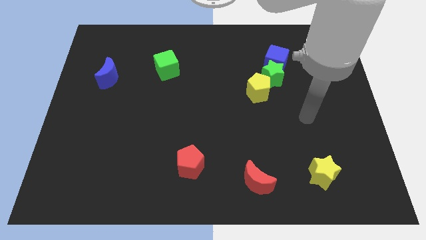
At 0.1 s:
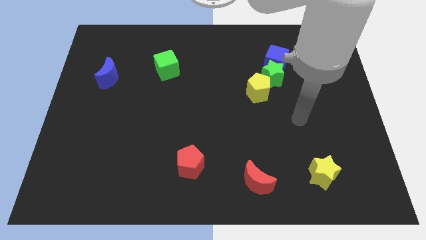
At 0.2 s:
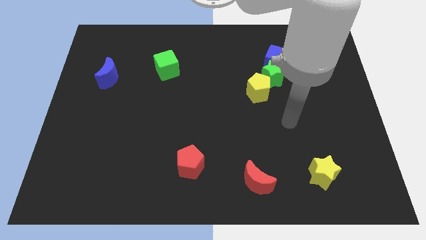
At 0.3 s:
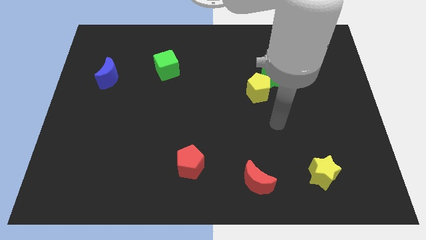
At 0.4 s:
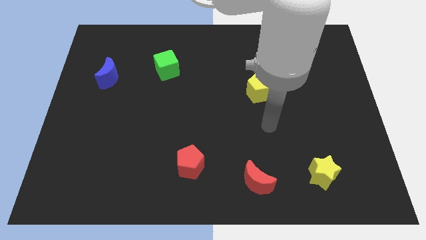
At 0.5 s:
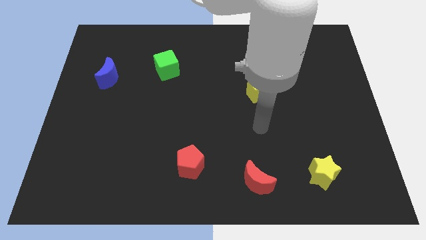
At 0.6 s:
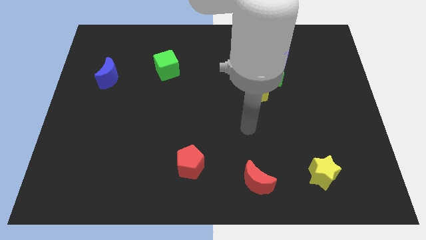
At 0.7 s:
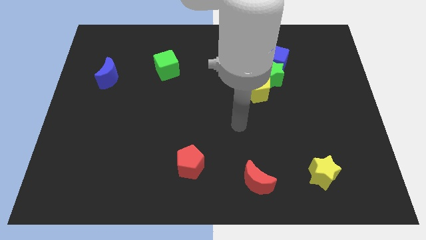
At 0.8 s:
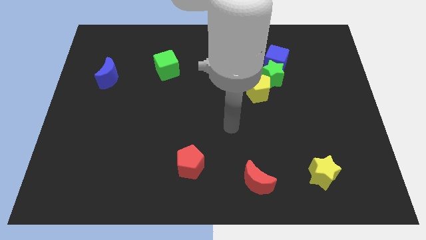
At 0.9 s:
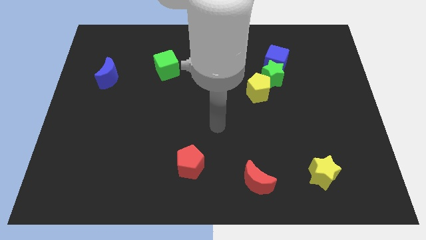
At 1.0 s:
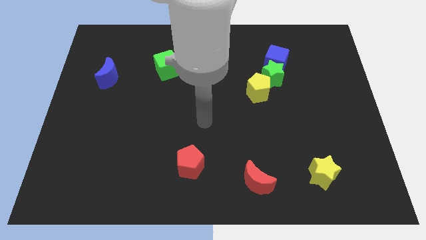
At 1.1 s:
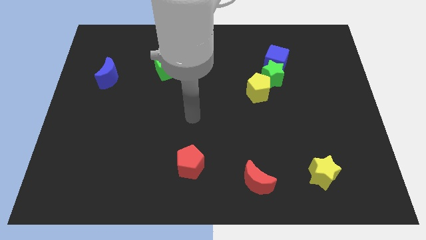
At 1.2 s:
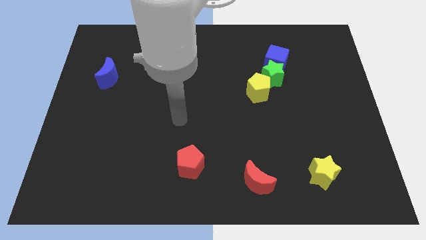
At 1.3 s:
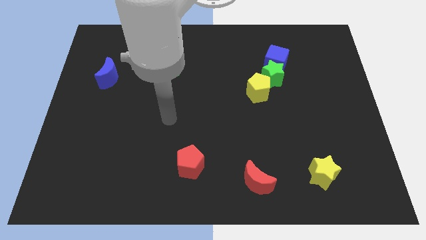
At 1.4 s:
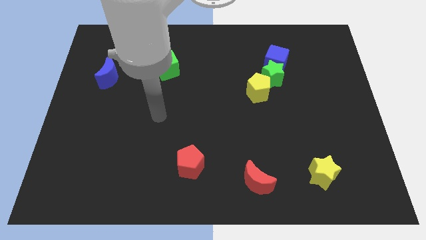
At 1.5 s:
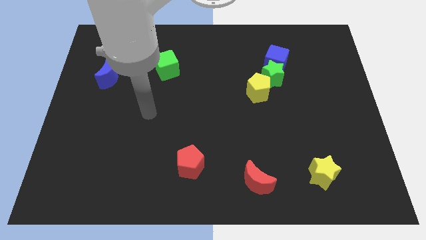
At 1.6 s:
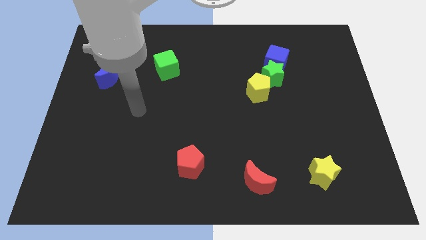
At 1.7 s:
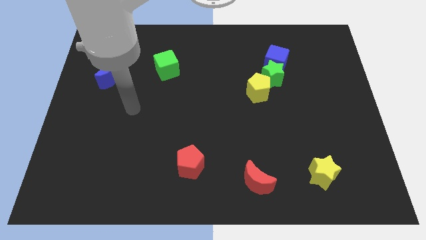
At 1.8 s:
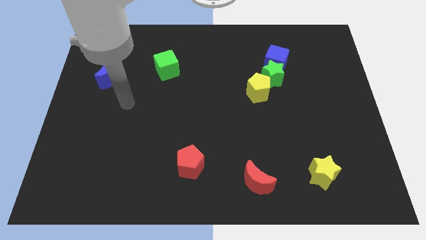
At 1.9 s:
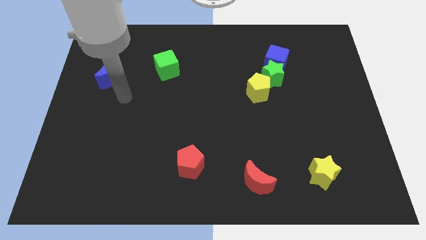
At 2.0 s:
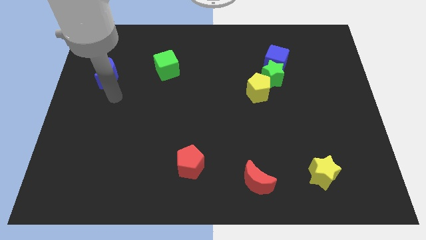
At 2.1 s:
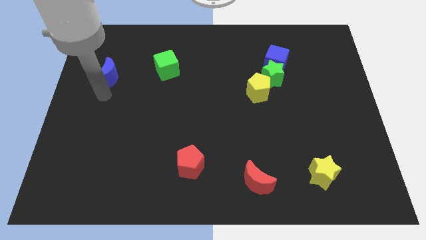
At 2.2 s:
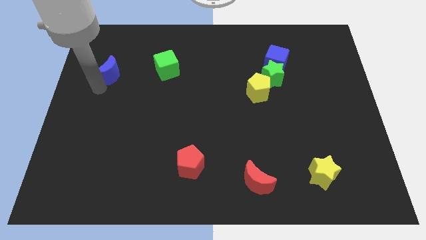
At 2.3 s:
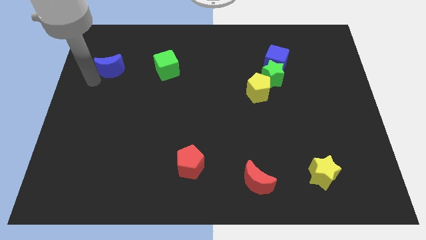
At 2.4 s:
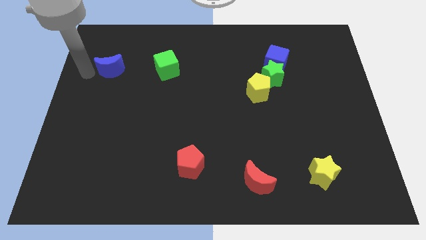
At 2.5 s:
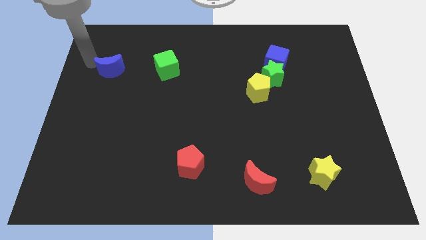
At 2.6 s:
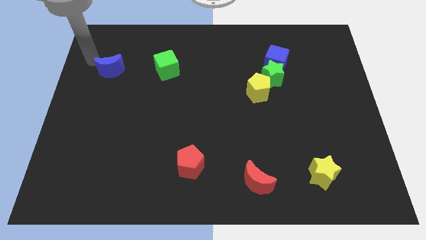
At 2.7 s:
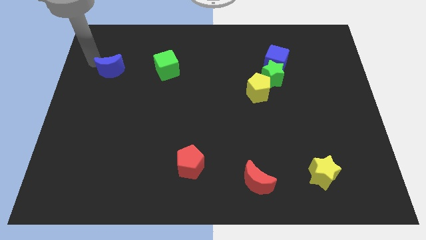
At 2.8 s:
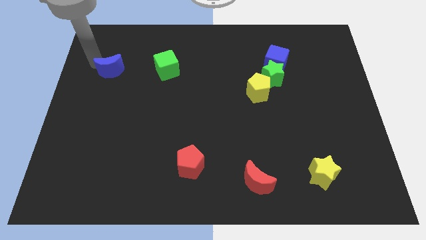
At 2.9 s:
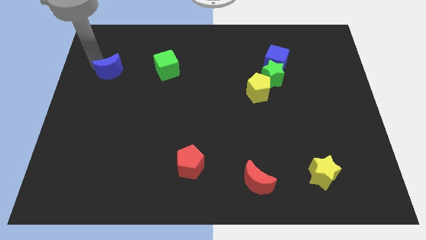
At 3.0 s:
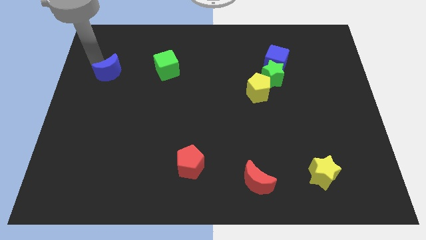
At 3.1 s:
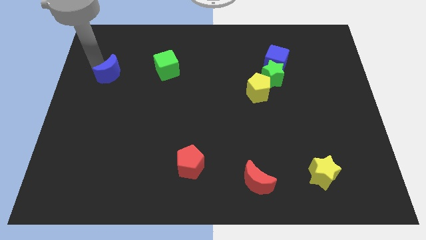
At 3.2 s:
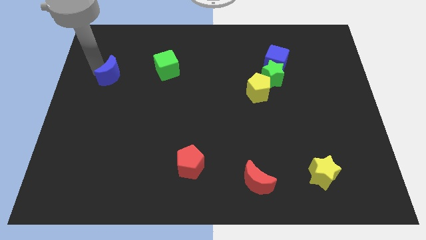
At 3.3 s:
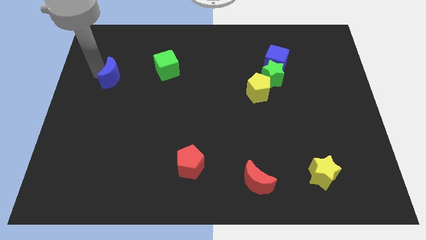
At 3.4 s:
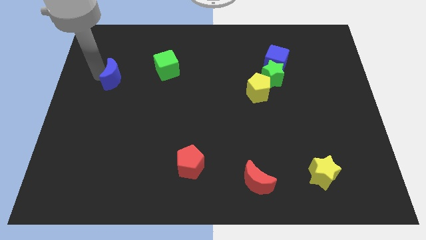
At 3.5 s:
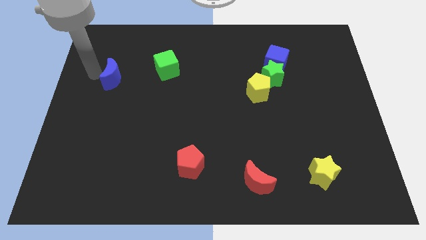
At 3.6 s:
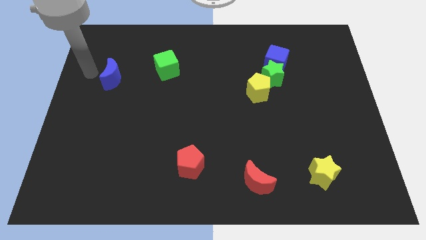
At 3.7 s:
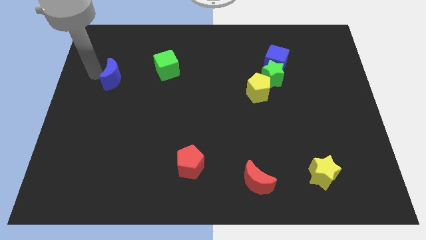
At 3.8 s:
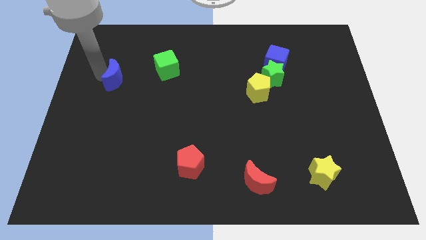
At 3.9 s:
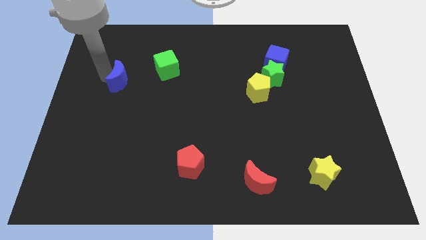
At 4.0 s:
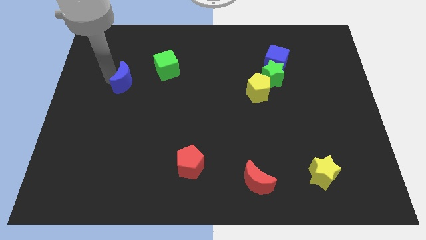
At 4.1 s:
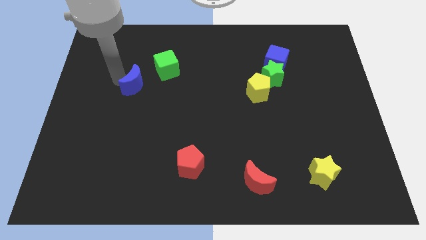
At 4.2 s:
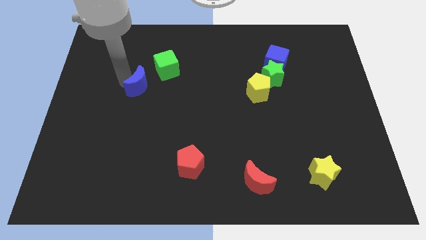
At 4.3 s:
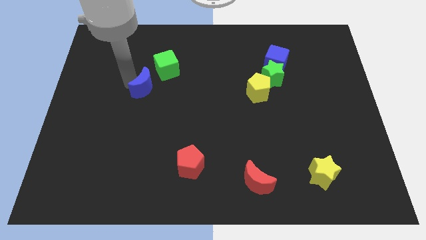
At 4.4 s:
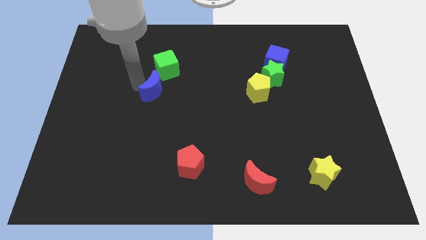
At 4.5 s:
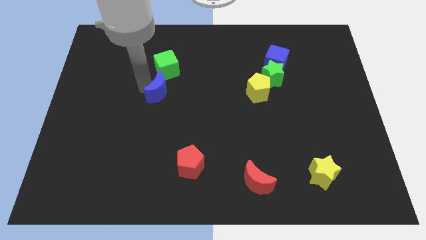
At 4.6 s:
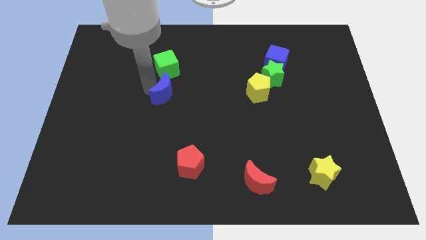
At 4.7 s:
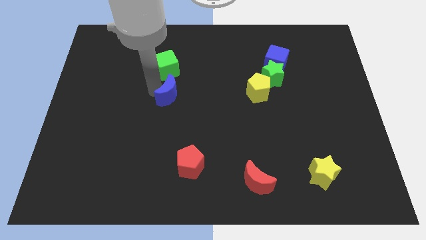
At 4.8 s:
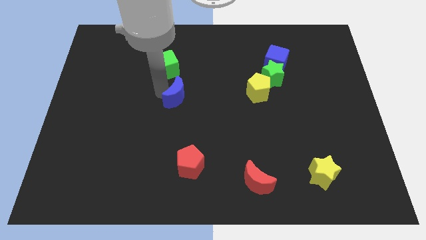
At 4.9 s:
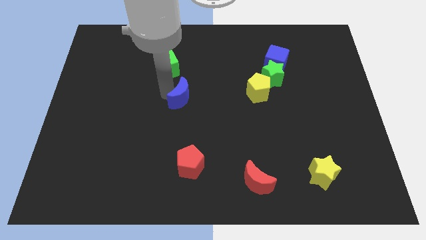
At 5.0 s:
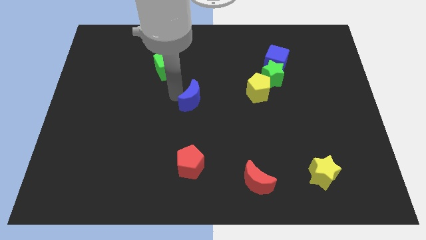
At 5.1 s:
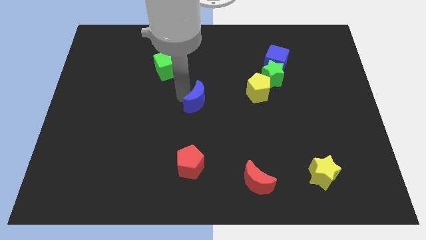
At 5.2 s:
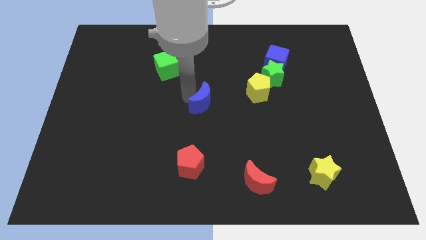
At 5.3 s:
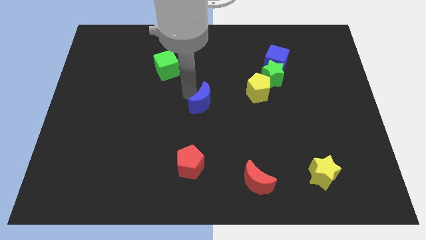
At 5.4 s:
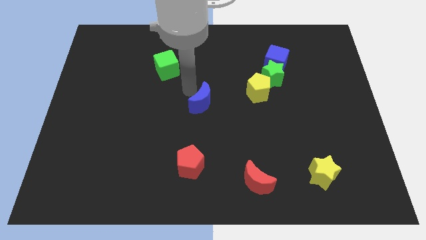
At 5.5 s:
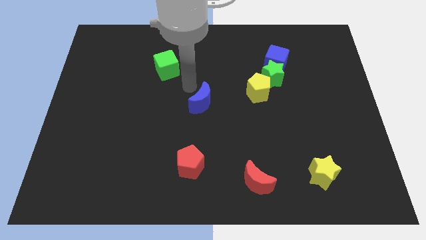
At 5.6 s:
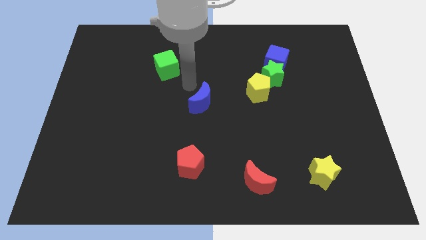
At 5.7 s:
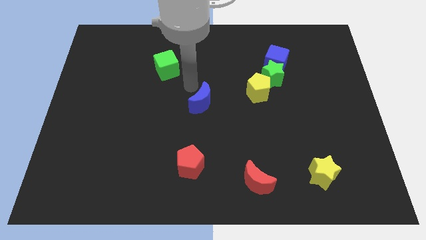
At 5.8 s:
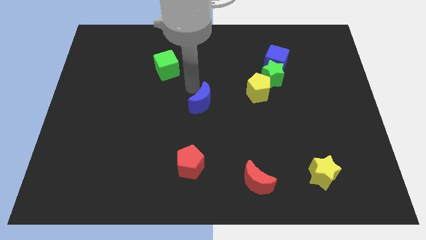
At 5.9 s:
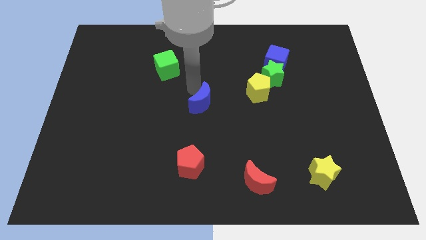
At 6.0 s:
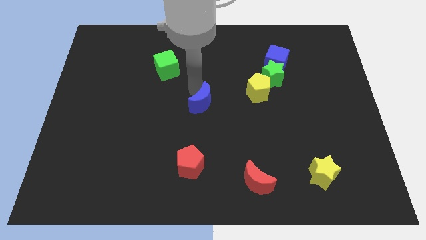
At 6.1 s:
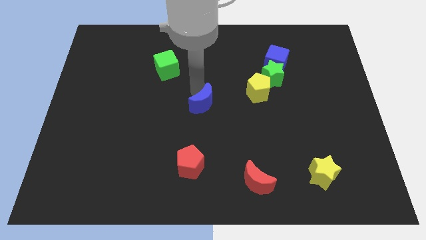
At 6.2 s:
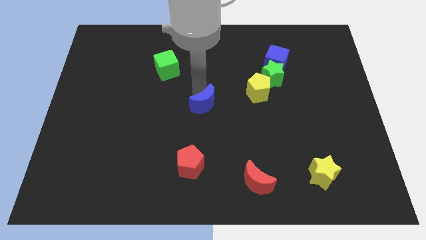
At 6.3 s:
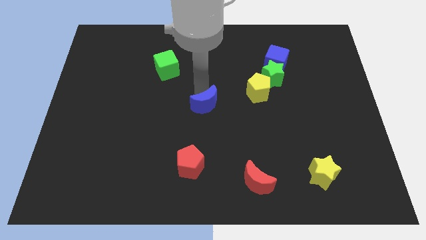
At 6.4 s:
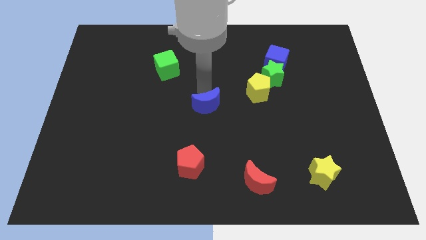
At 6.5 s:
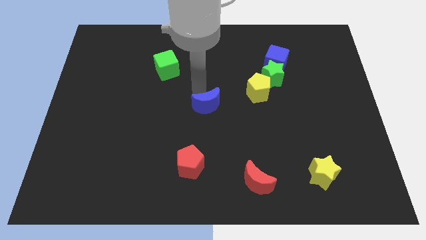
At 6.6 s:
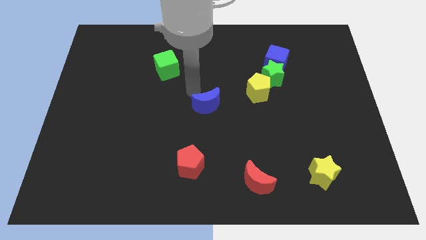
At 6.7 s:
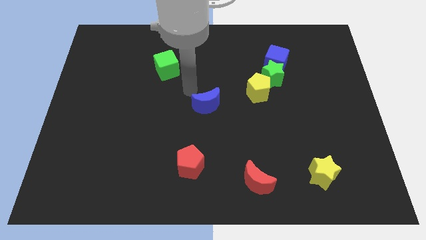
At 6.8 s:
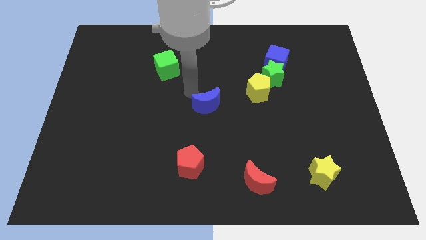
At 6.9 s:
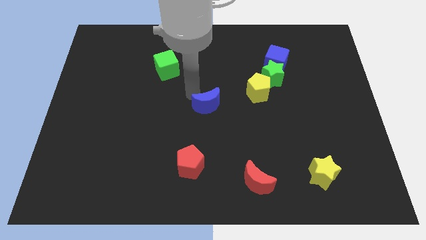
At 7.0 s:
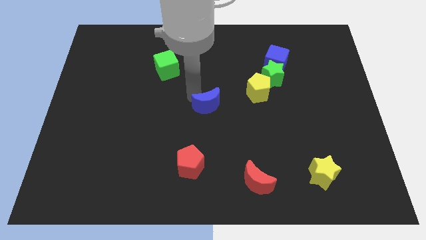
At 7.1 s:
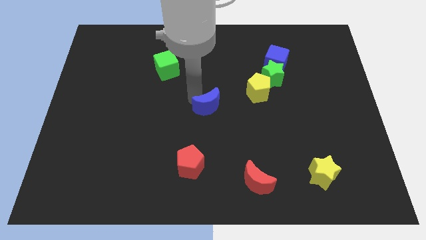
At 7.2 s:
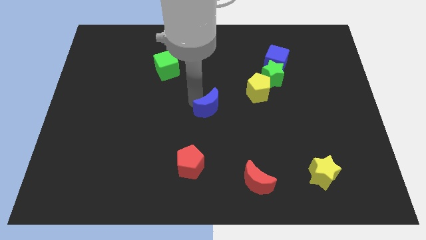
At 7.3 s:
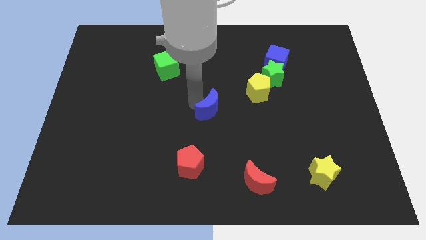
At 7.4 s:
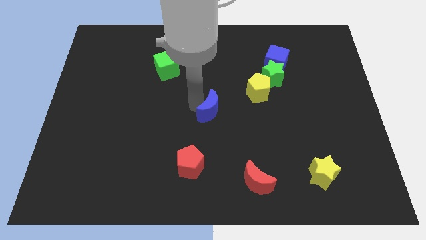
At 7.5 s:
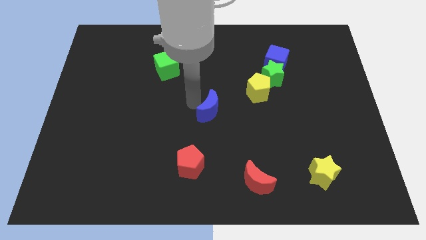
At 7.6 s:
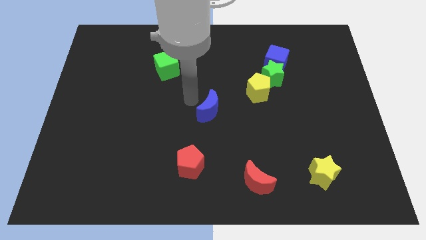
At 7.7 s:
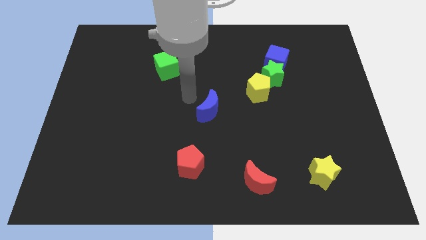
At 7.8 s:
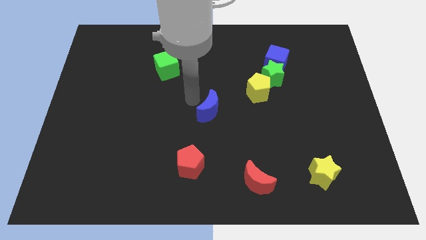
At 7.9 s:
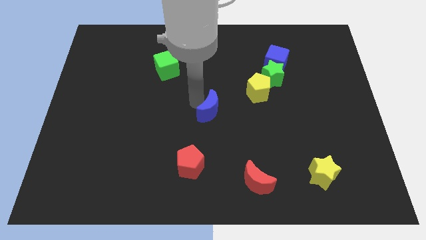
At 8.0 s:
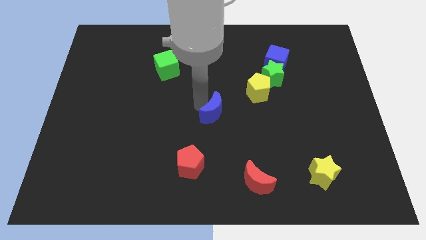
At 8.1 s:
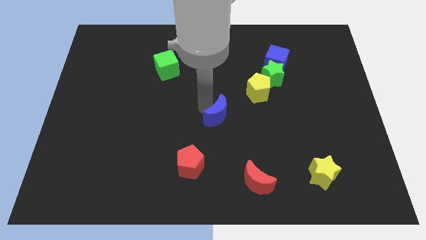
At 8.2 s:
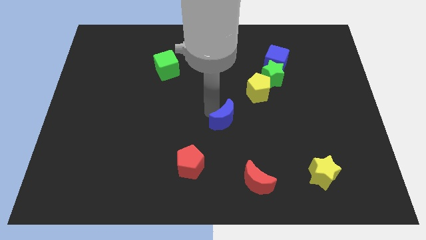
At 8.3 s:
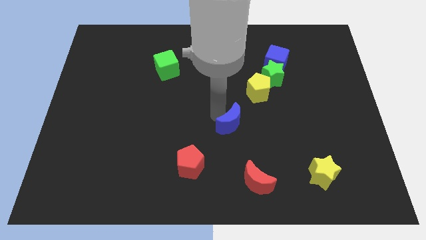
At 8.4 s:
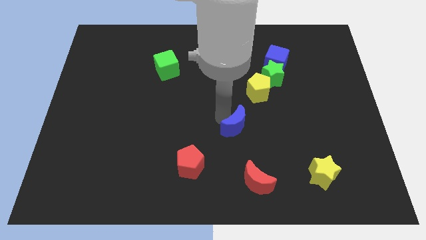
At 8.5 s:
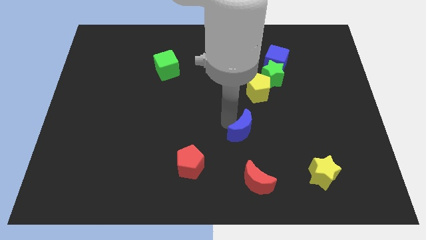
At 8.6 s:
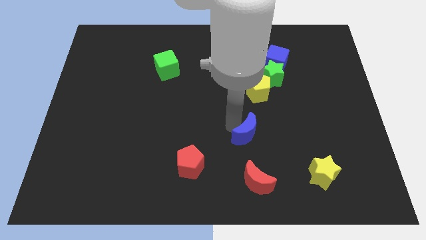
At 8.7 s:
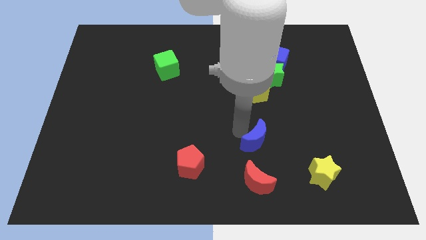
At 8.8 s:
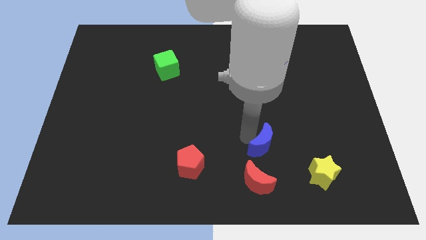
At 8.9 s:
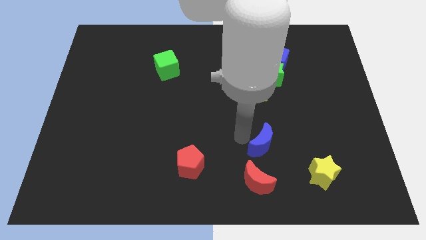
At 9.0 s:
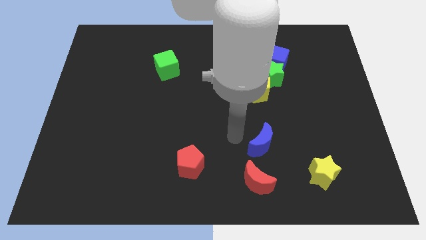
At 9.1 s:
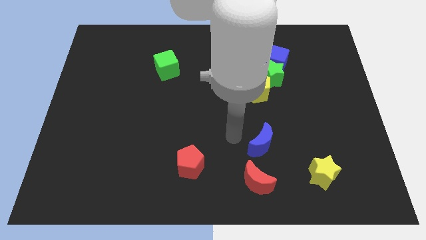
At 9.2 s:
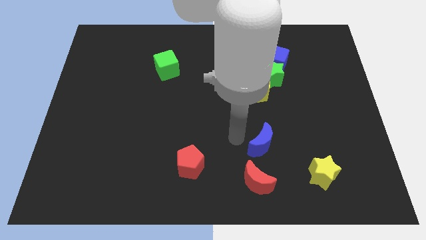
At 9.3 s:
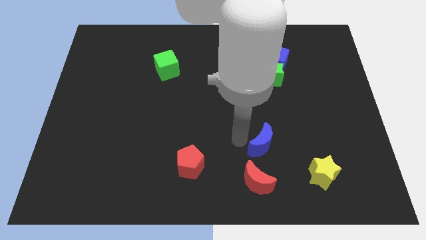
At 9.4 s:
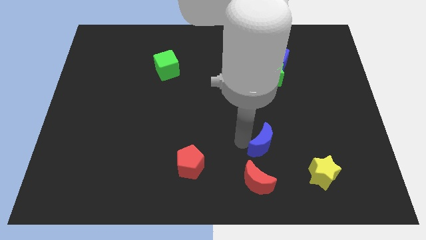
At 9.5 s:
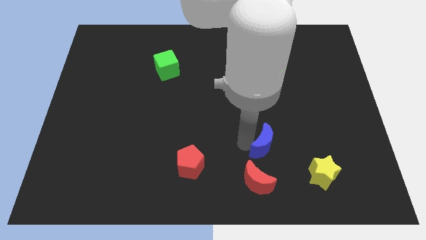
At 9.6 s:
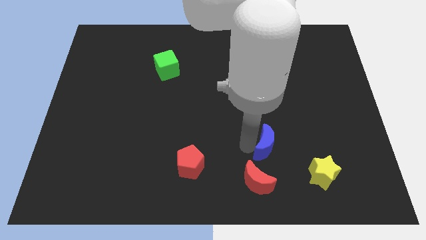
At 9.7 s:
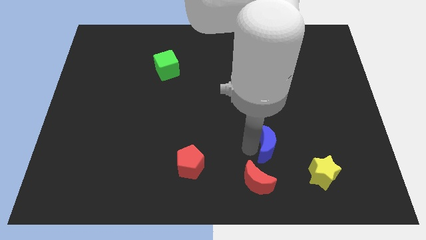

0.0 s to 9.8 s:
slide the blue moon to the top left of the yellow star
